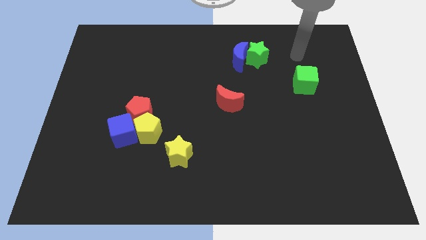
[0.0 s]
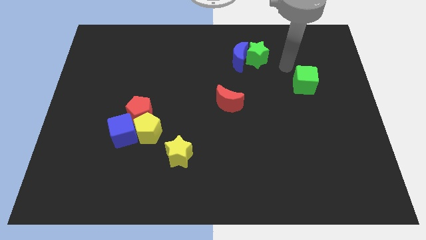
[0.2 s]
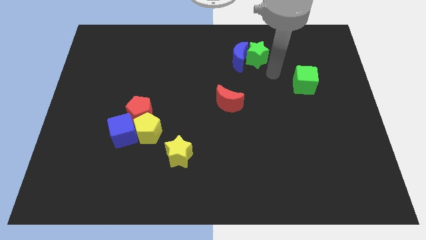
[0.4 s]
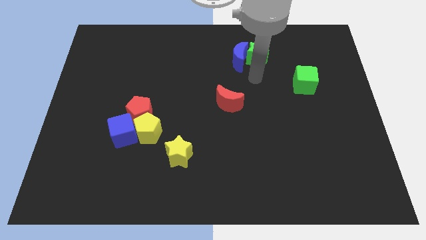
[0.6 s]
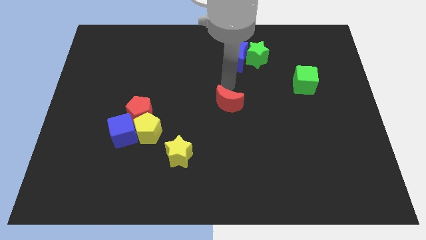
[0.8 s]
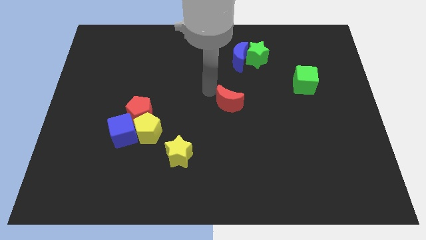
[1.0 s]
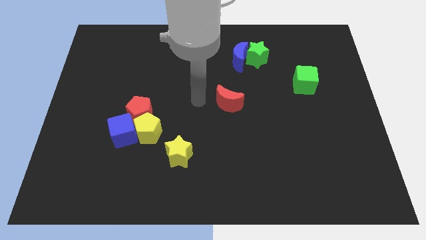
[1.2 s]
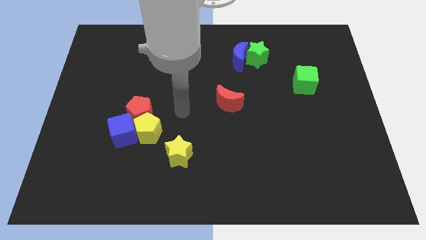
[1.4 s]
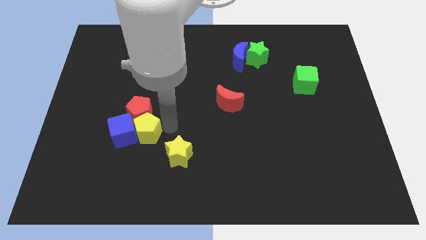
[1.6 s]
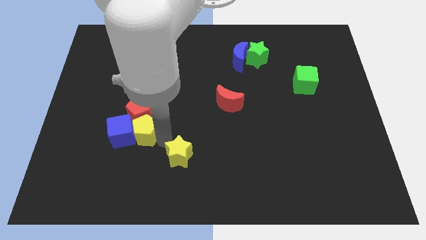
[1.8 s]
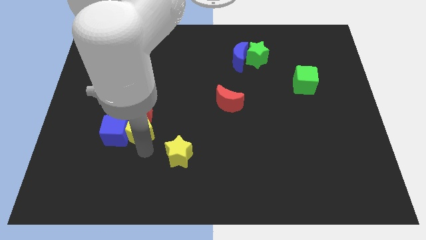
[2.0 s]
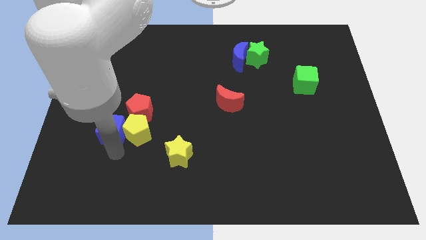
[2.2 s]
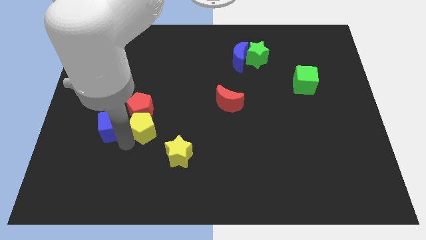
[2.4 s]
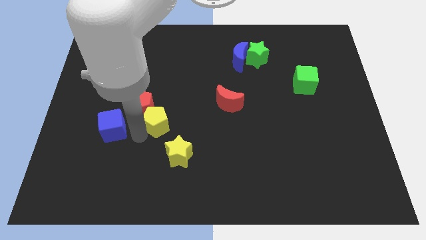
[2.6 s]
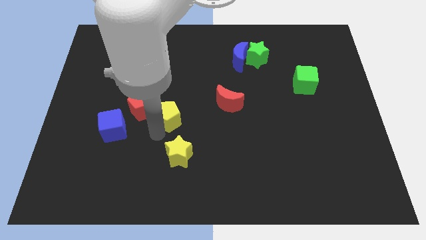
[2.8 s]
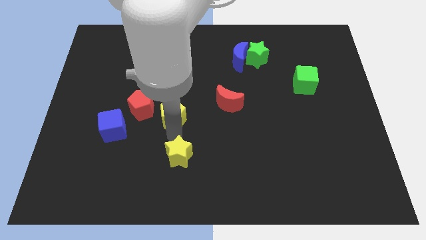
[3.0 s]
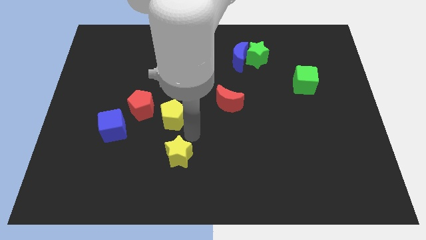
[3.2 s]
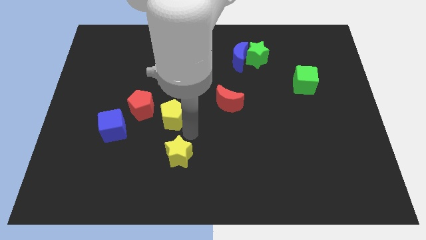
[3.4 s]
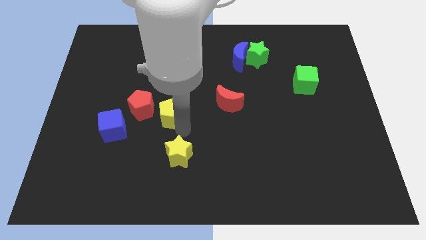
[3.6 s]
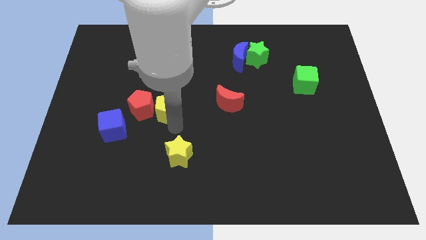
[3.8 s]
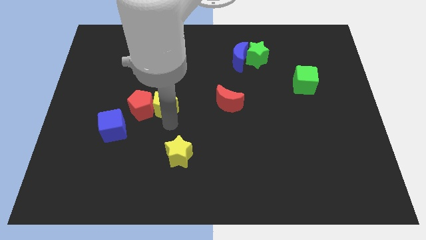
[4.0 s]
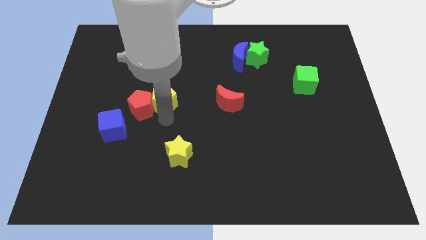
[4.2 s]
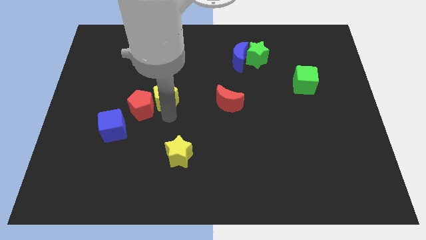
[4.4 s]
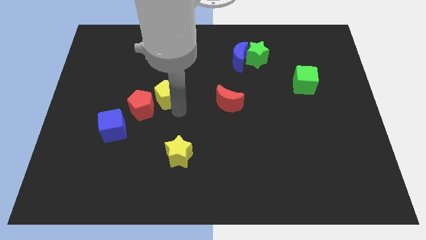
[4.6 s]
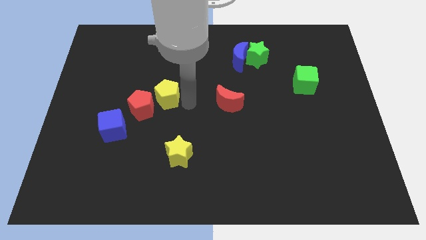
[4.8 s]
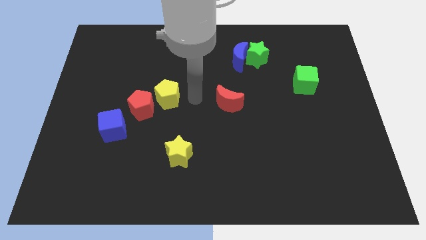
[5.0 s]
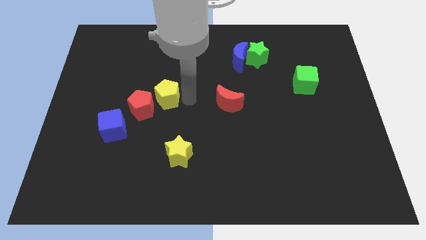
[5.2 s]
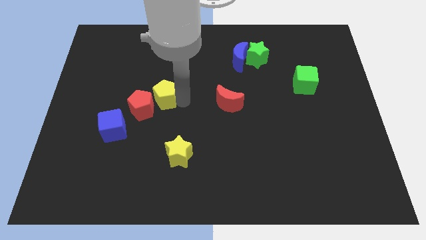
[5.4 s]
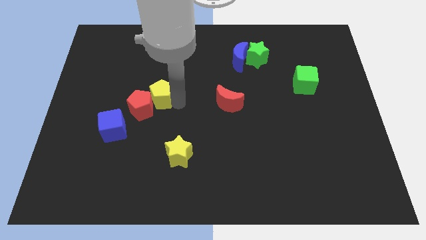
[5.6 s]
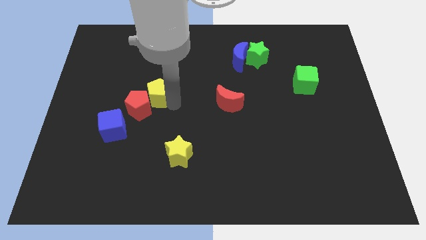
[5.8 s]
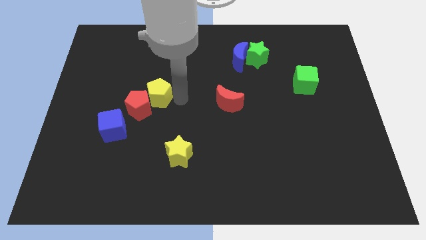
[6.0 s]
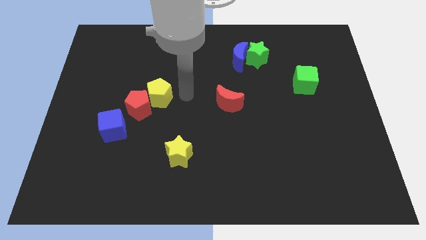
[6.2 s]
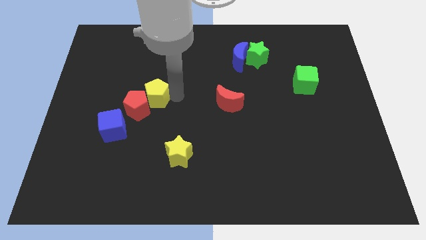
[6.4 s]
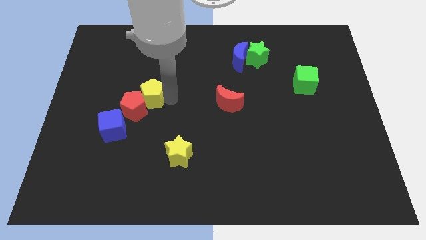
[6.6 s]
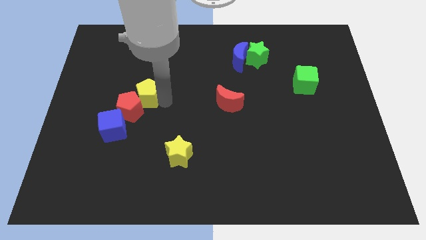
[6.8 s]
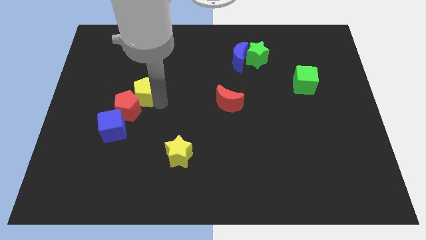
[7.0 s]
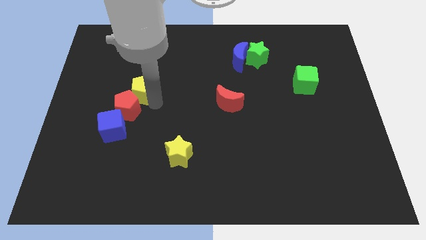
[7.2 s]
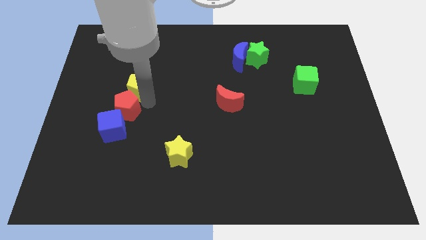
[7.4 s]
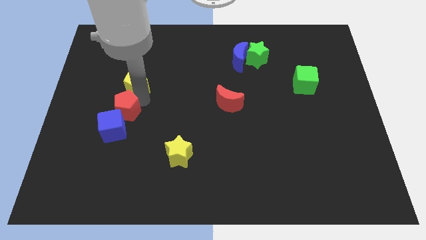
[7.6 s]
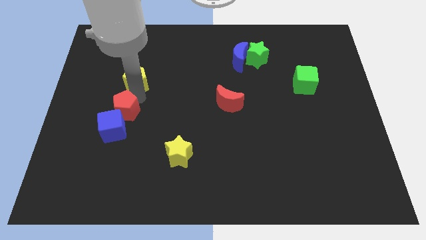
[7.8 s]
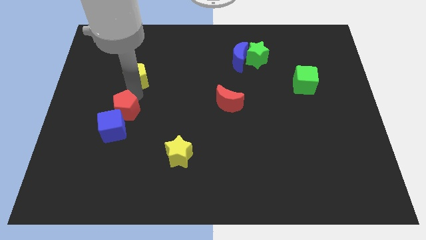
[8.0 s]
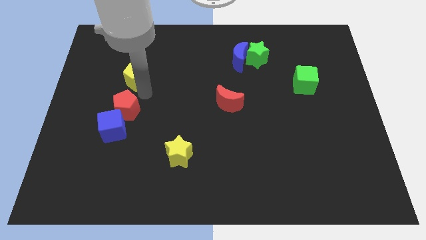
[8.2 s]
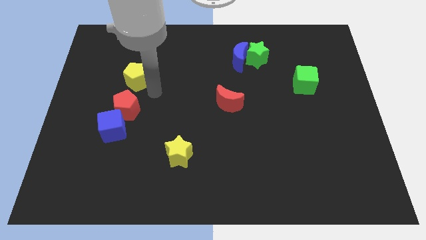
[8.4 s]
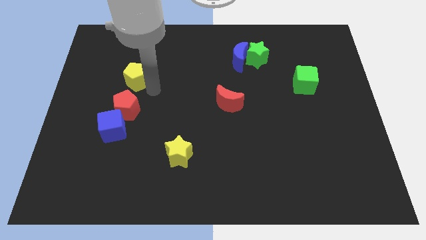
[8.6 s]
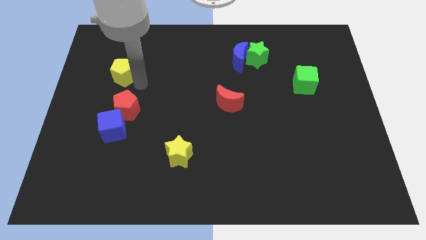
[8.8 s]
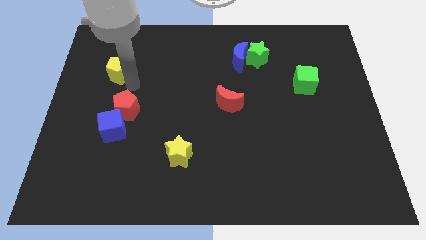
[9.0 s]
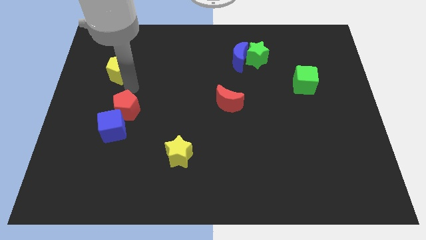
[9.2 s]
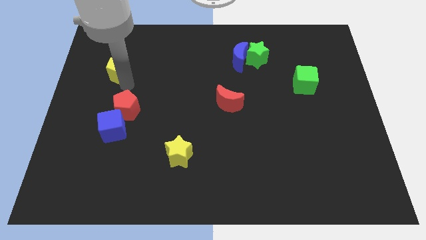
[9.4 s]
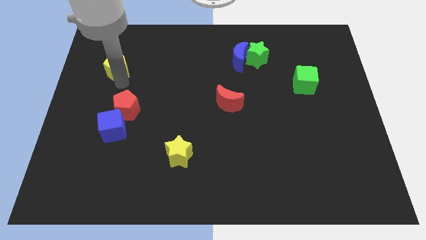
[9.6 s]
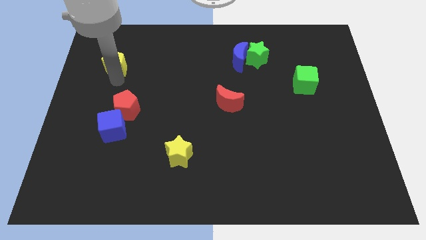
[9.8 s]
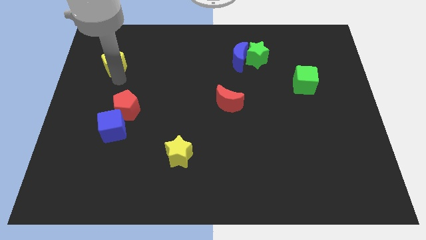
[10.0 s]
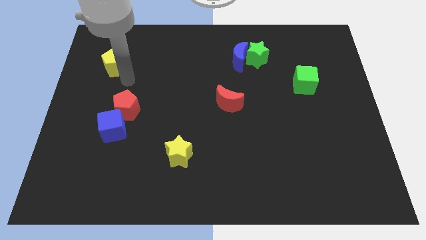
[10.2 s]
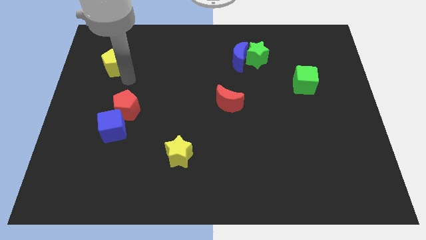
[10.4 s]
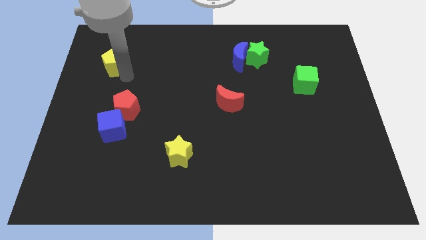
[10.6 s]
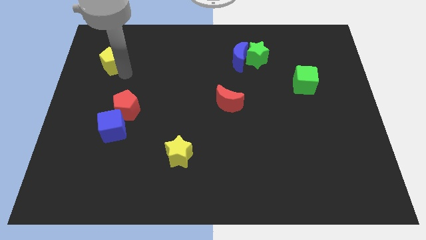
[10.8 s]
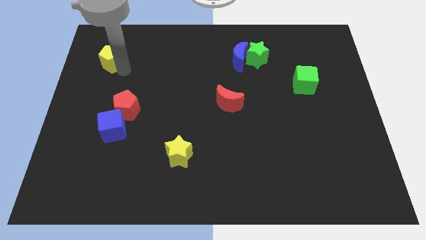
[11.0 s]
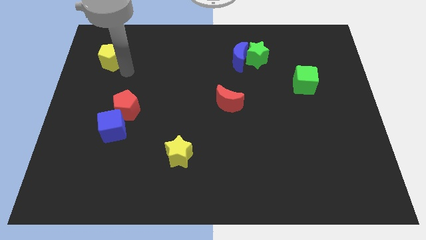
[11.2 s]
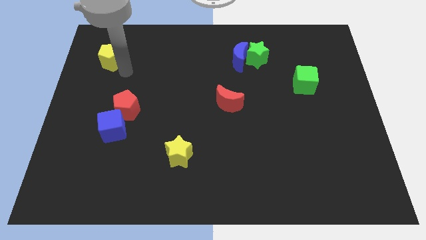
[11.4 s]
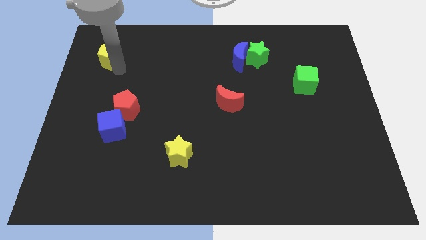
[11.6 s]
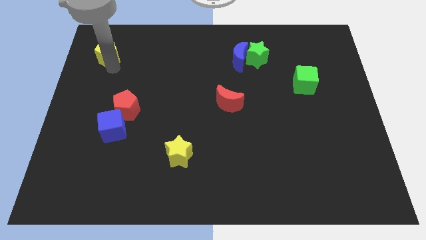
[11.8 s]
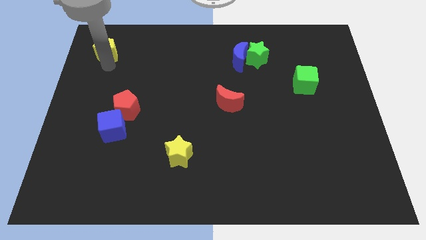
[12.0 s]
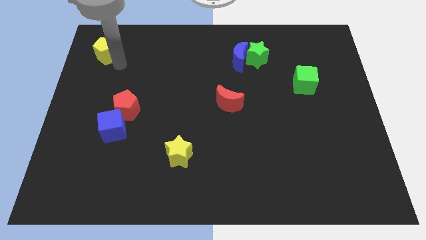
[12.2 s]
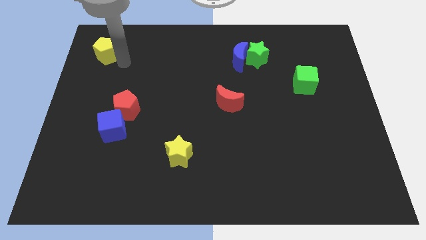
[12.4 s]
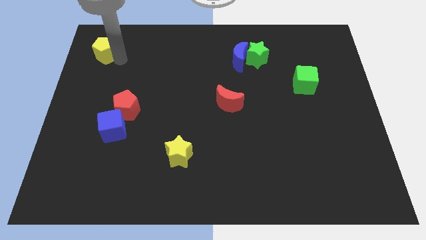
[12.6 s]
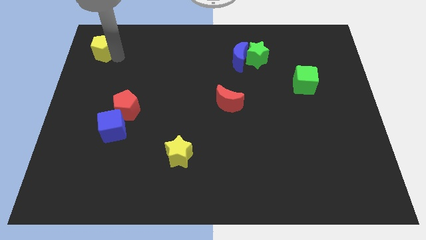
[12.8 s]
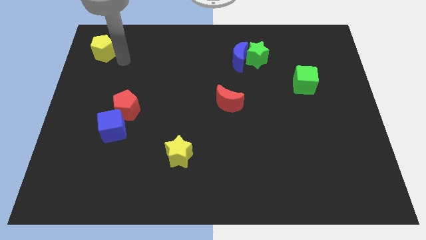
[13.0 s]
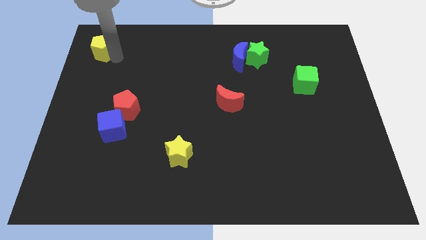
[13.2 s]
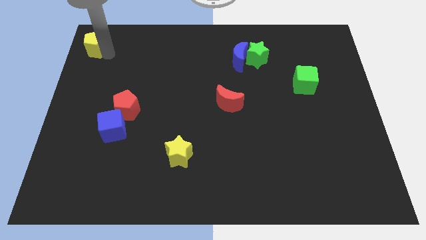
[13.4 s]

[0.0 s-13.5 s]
push the yellow pentagon to the top left
